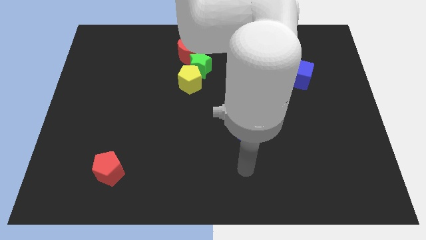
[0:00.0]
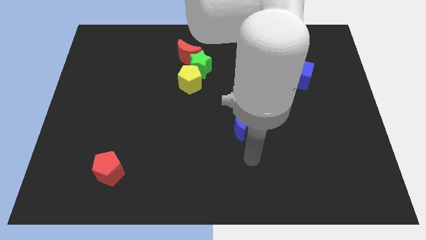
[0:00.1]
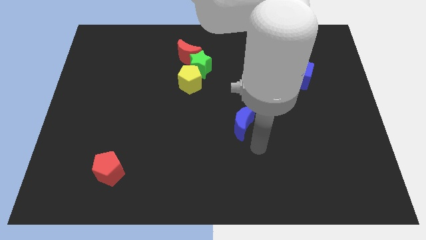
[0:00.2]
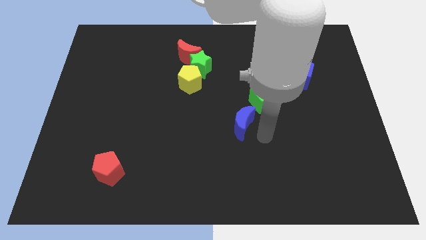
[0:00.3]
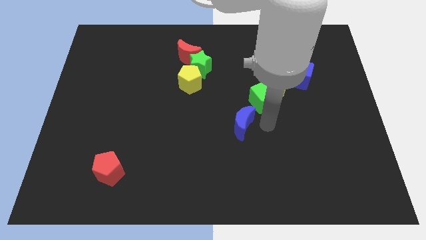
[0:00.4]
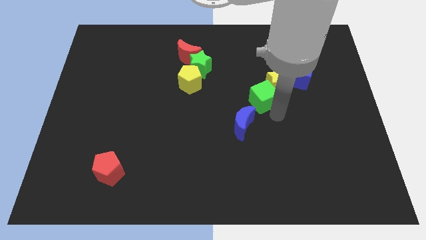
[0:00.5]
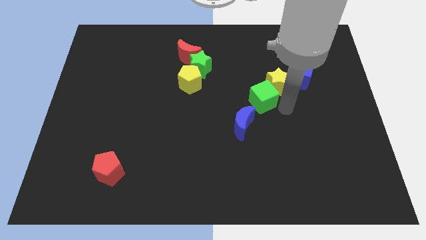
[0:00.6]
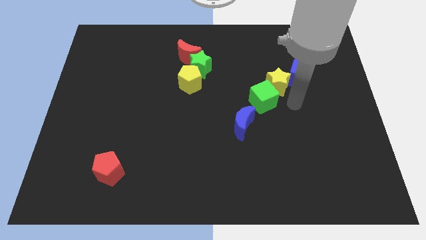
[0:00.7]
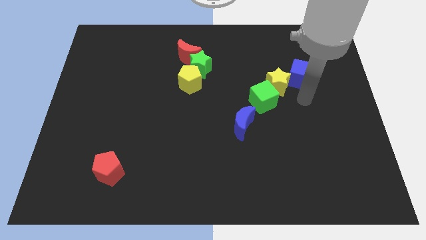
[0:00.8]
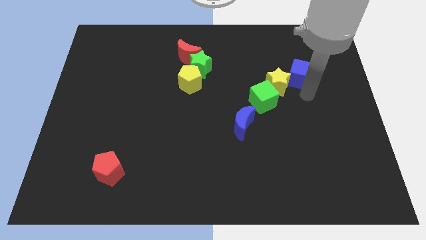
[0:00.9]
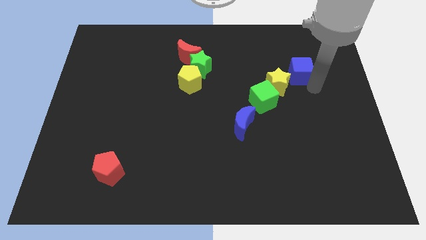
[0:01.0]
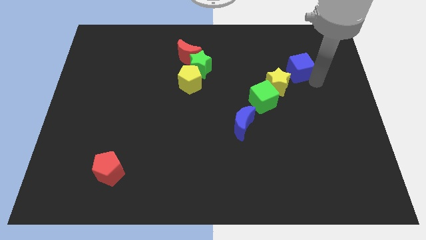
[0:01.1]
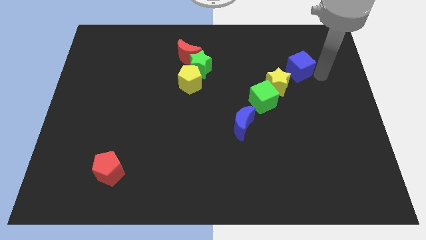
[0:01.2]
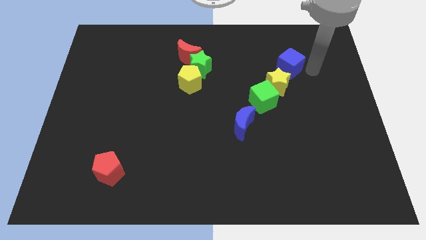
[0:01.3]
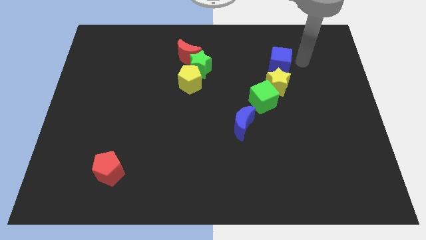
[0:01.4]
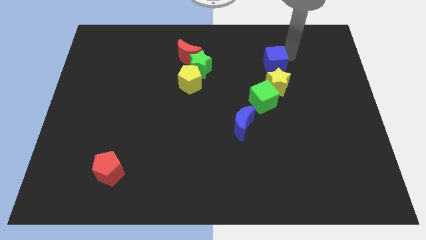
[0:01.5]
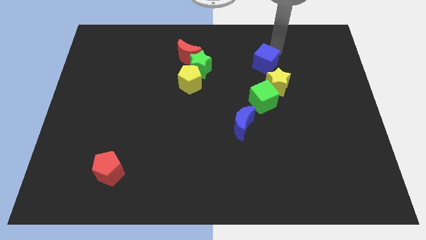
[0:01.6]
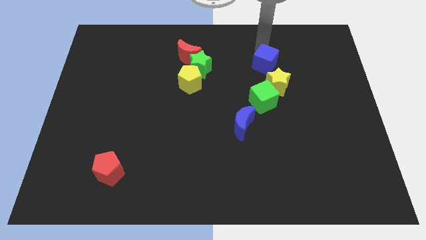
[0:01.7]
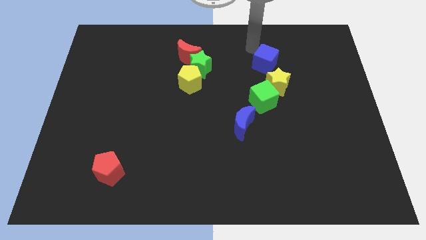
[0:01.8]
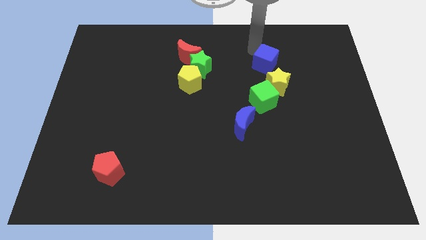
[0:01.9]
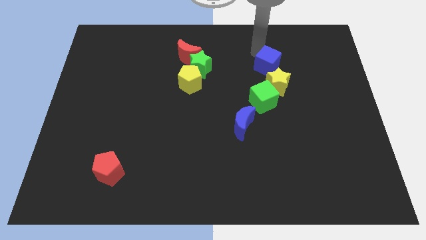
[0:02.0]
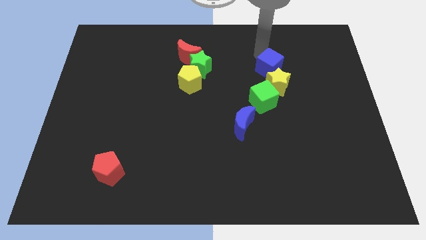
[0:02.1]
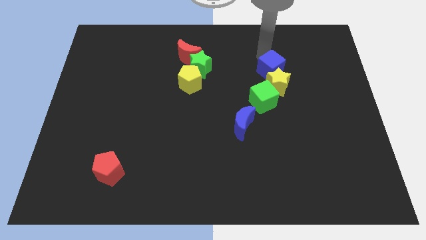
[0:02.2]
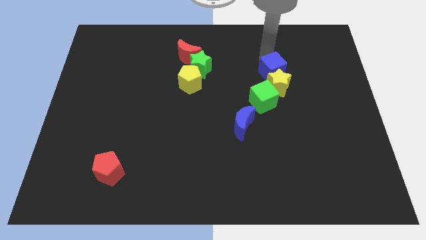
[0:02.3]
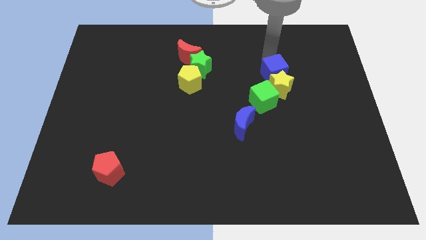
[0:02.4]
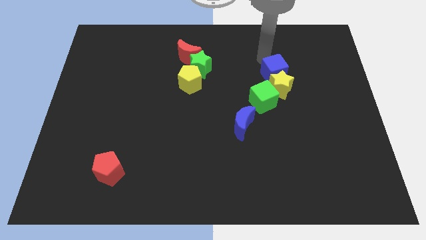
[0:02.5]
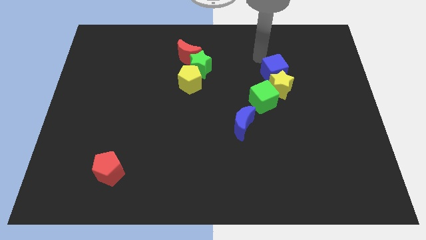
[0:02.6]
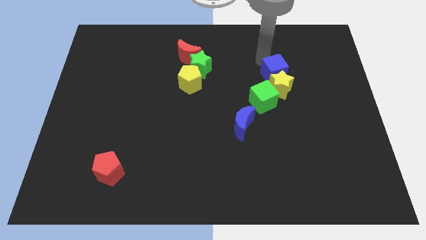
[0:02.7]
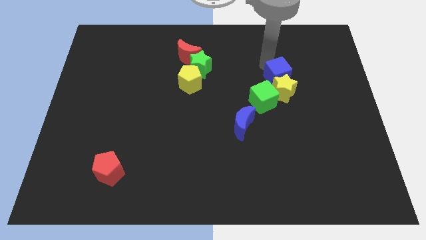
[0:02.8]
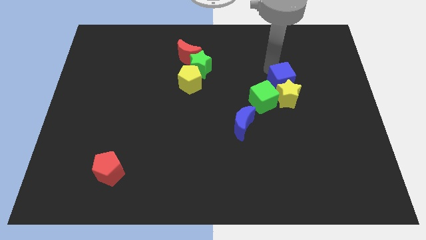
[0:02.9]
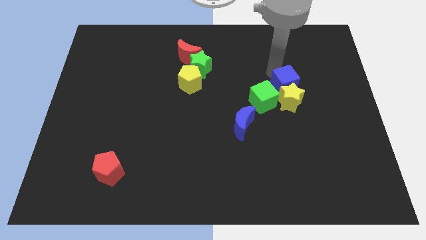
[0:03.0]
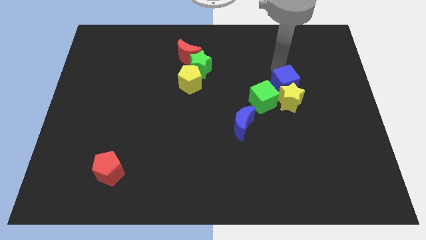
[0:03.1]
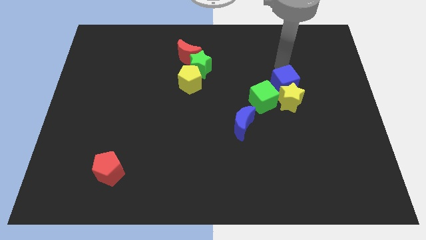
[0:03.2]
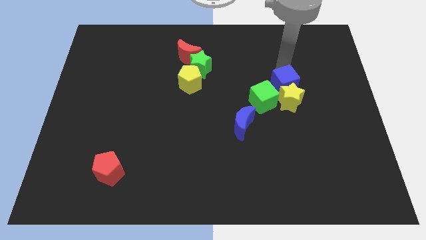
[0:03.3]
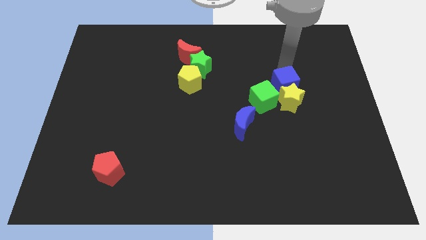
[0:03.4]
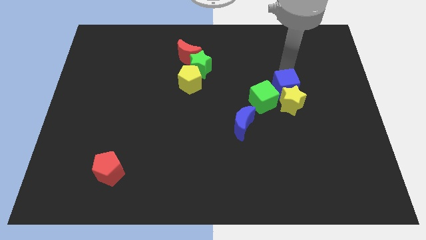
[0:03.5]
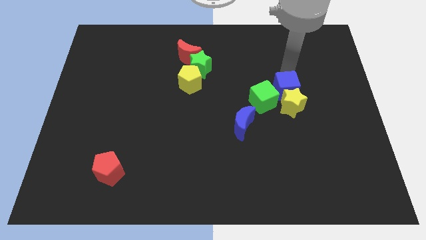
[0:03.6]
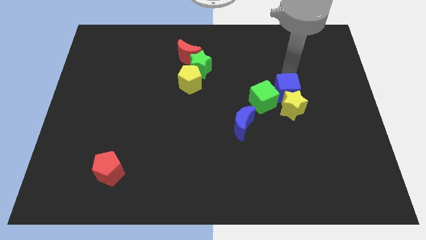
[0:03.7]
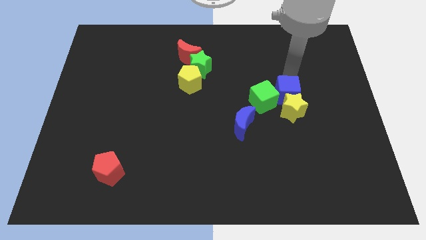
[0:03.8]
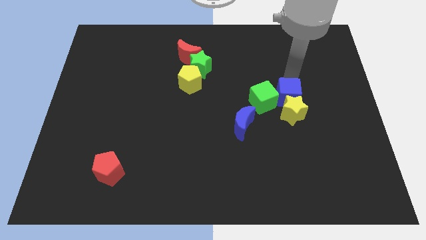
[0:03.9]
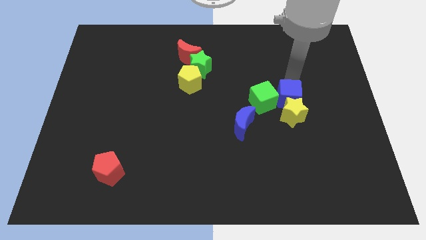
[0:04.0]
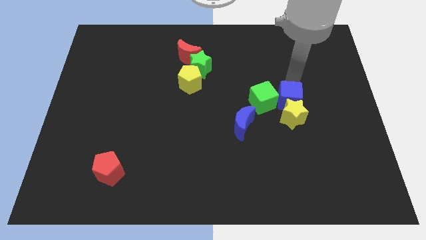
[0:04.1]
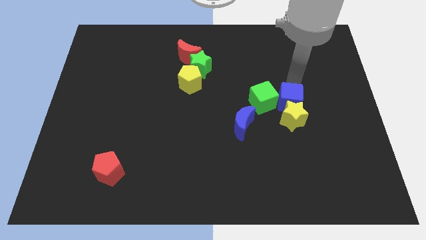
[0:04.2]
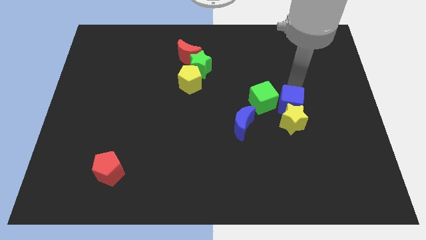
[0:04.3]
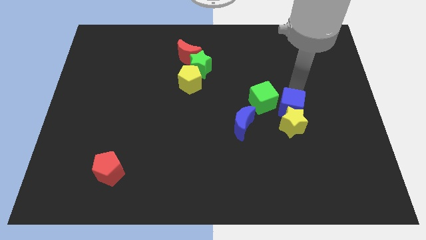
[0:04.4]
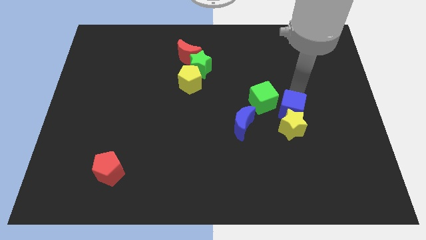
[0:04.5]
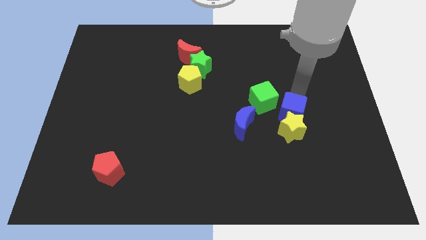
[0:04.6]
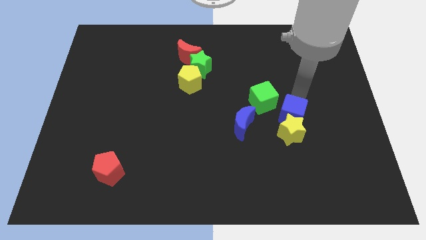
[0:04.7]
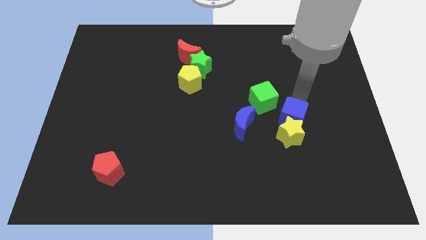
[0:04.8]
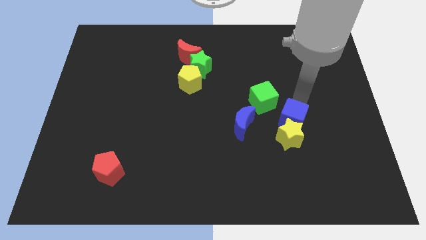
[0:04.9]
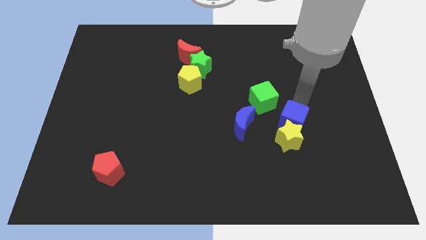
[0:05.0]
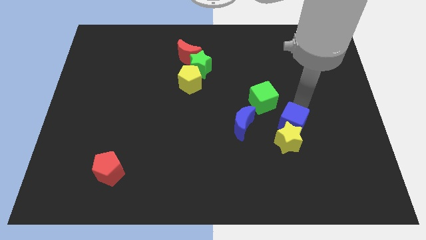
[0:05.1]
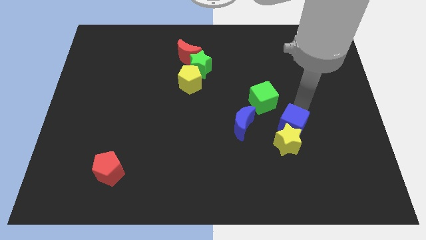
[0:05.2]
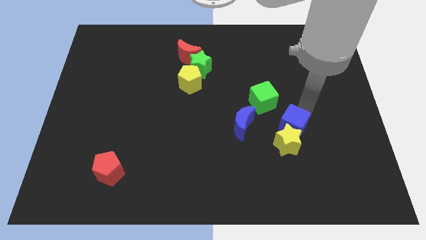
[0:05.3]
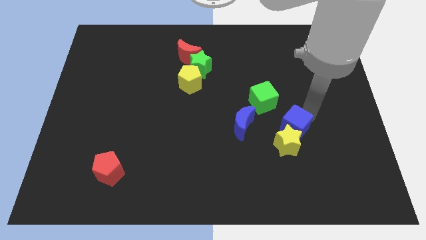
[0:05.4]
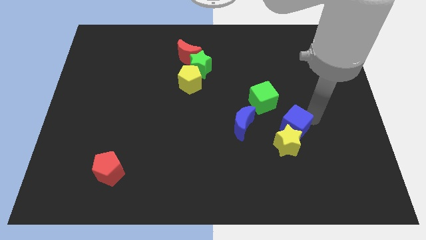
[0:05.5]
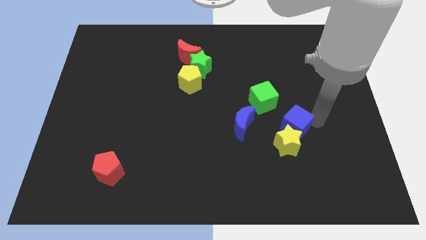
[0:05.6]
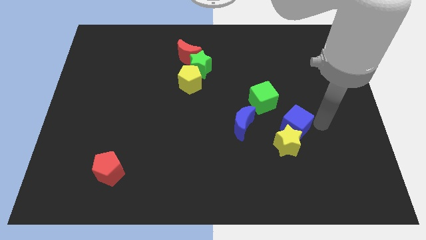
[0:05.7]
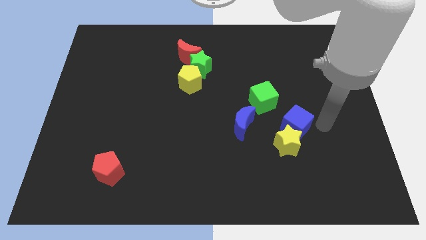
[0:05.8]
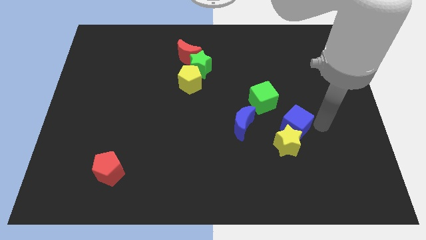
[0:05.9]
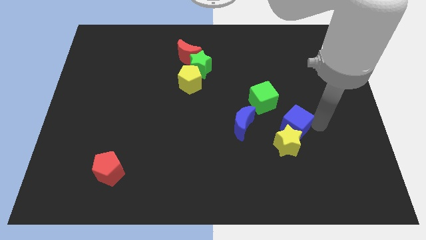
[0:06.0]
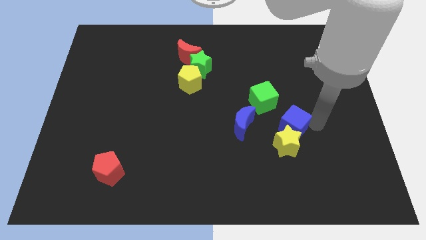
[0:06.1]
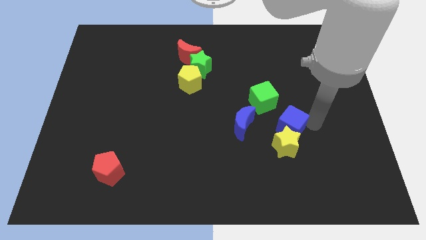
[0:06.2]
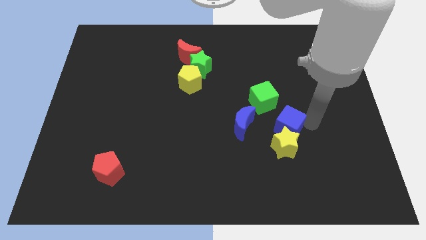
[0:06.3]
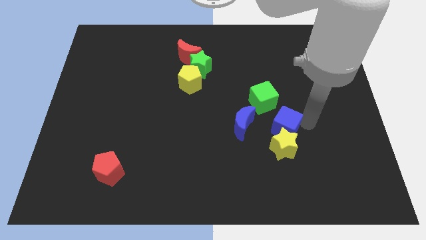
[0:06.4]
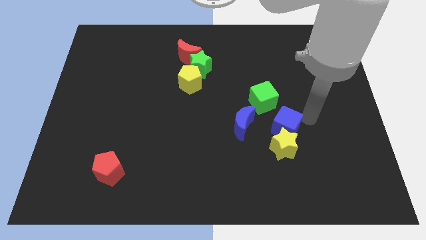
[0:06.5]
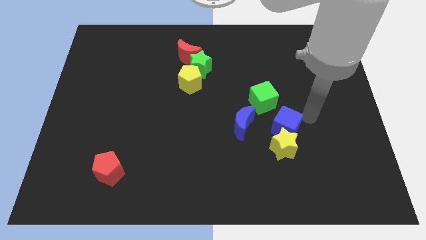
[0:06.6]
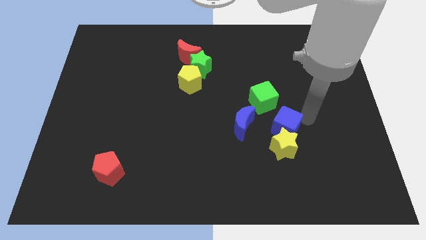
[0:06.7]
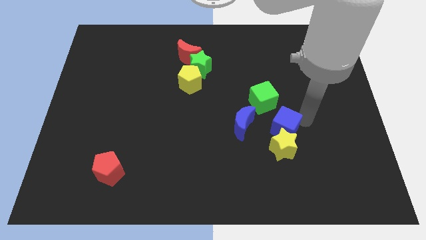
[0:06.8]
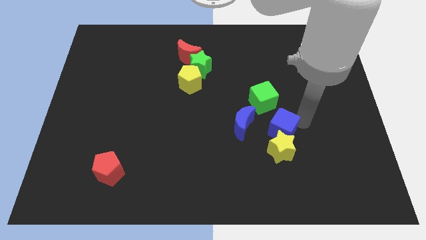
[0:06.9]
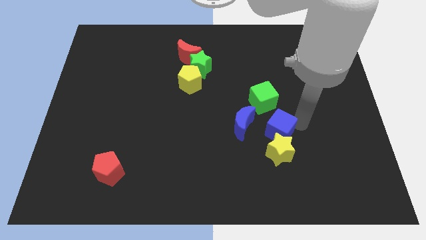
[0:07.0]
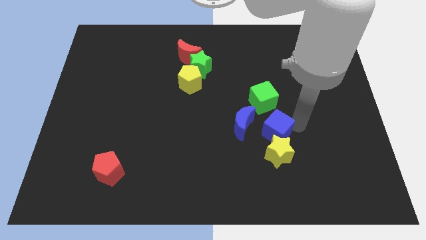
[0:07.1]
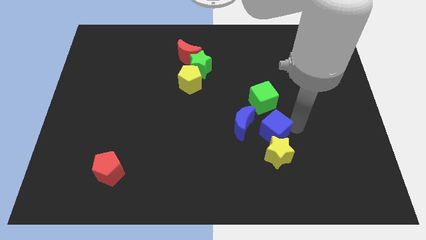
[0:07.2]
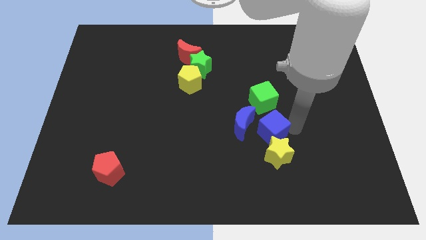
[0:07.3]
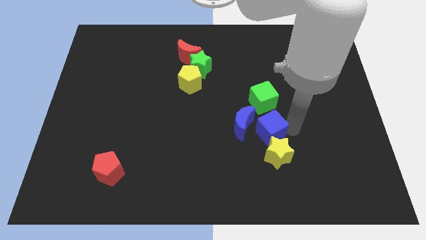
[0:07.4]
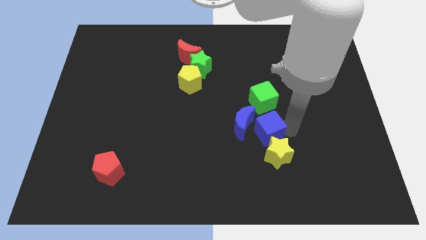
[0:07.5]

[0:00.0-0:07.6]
push the blue cube close to the blue moon

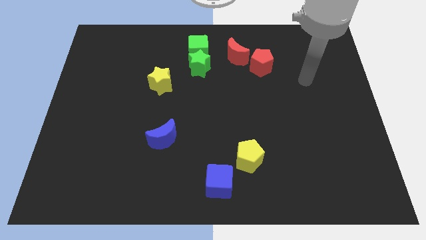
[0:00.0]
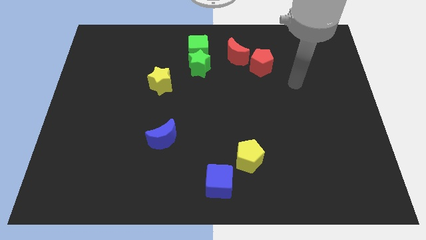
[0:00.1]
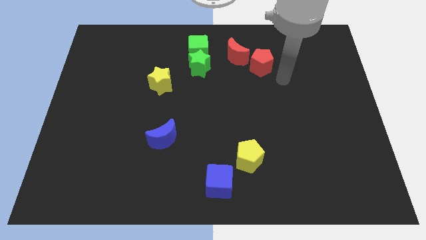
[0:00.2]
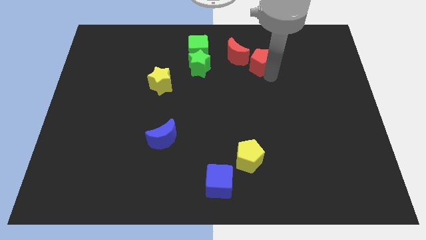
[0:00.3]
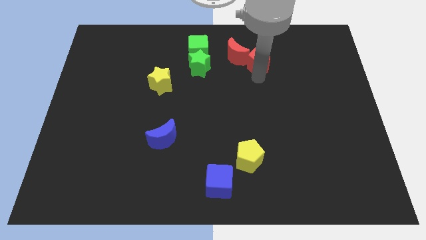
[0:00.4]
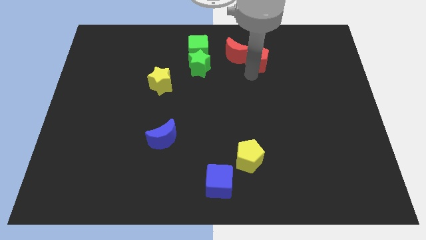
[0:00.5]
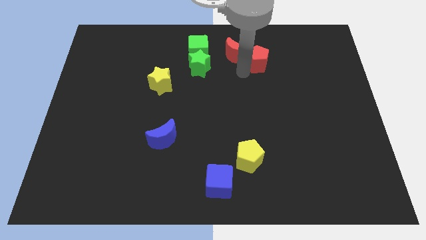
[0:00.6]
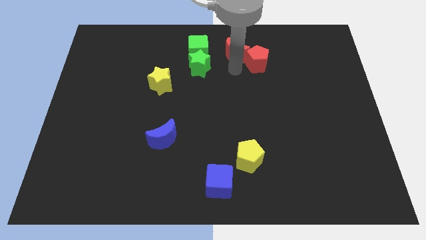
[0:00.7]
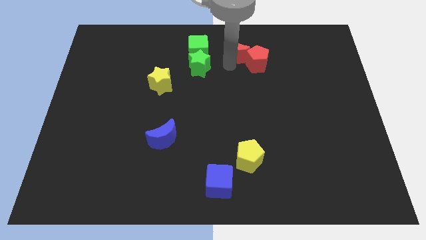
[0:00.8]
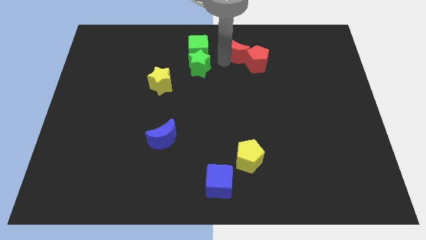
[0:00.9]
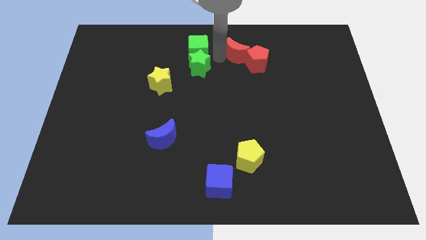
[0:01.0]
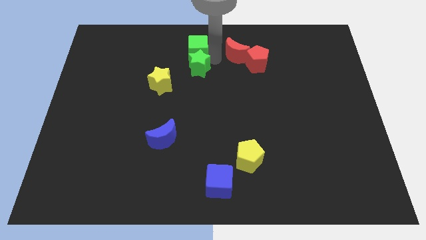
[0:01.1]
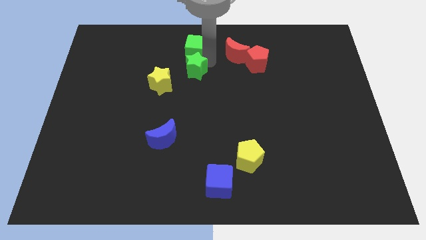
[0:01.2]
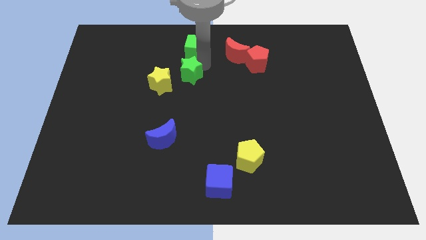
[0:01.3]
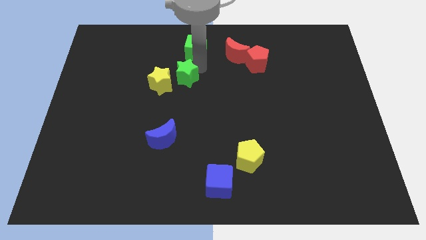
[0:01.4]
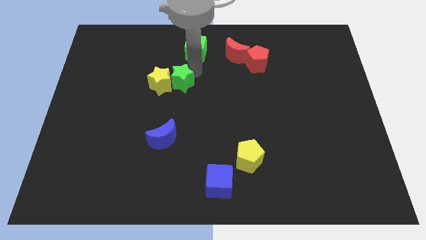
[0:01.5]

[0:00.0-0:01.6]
push the green star towards the yellow star
